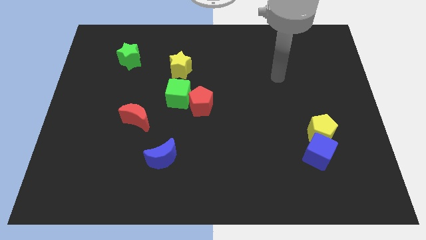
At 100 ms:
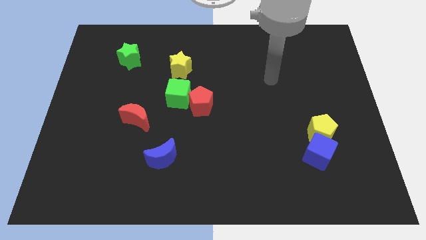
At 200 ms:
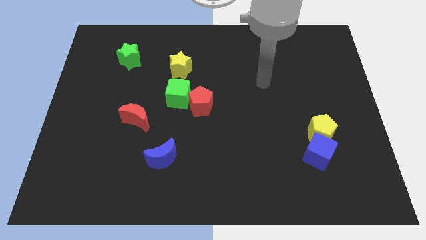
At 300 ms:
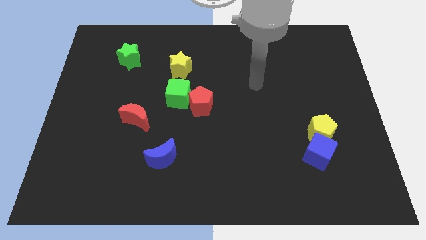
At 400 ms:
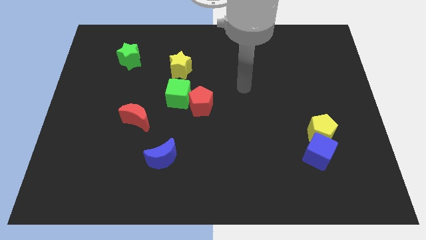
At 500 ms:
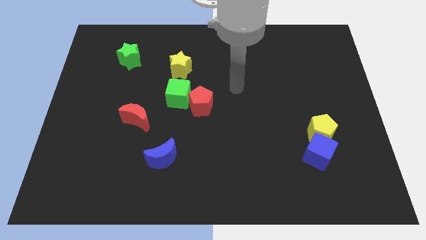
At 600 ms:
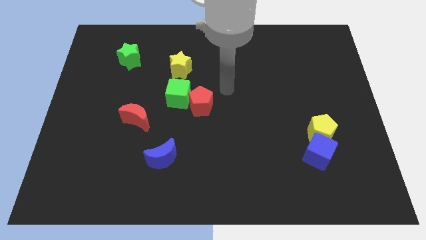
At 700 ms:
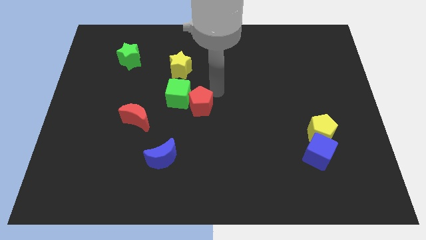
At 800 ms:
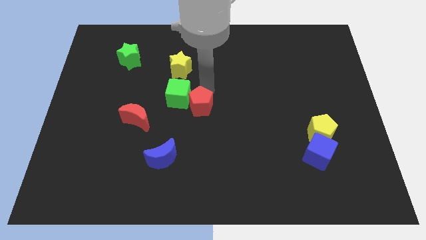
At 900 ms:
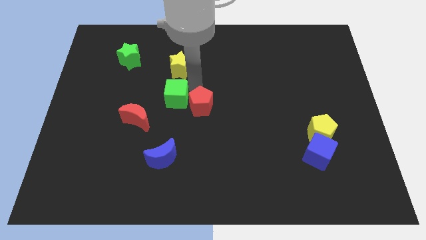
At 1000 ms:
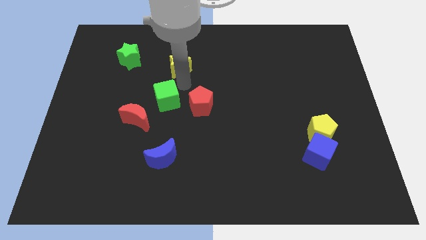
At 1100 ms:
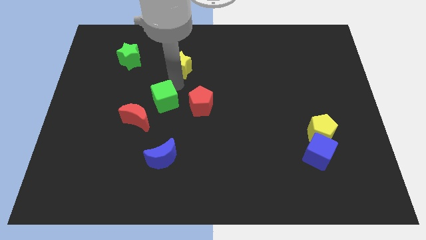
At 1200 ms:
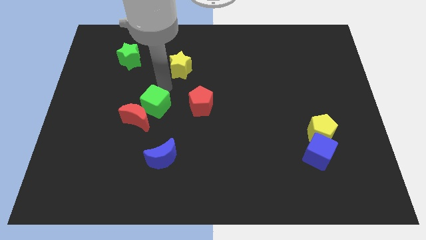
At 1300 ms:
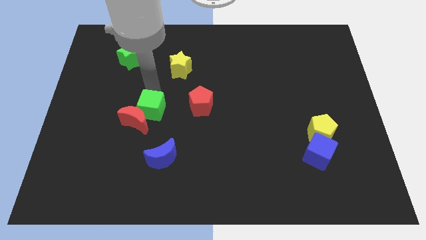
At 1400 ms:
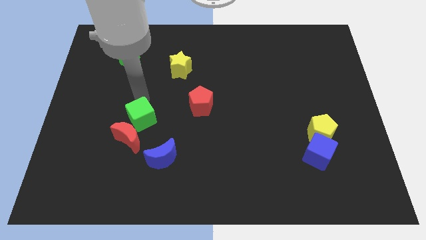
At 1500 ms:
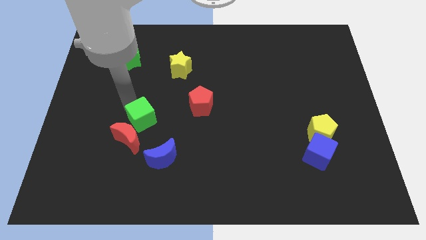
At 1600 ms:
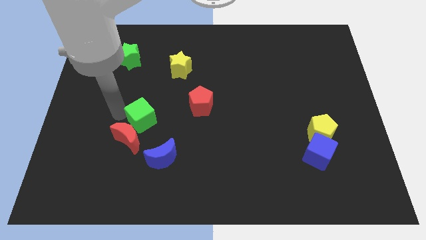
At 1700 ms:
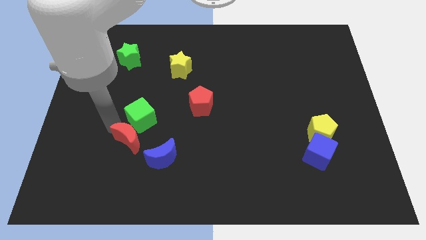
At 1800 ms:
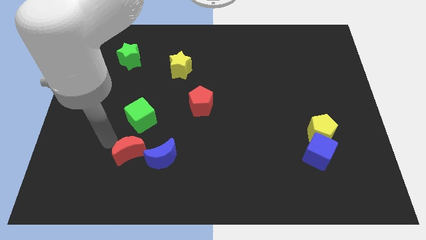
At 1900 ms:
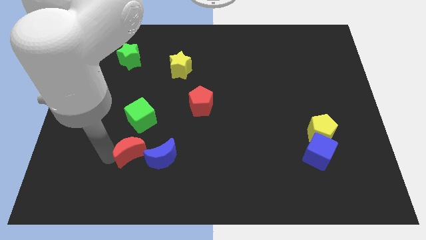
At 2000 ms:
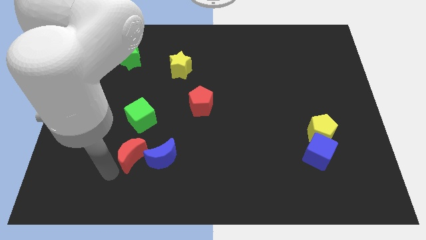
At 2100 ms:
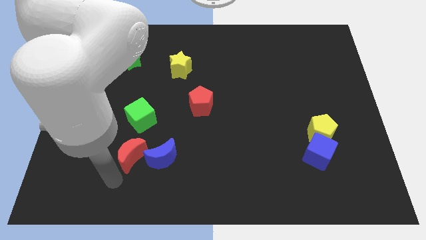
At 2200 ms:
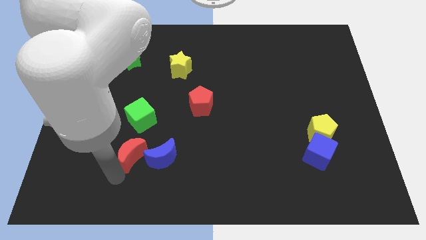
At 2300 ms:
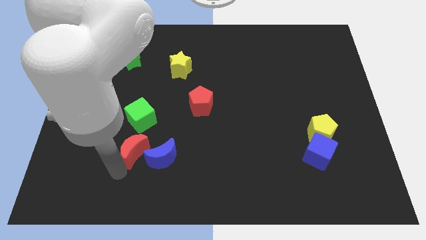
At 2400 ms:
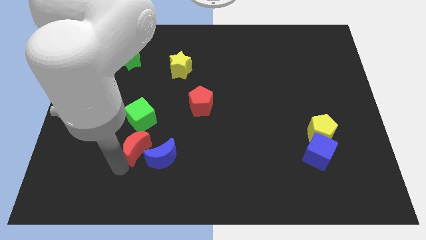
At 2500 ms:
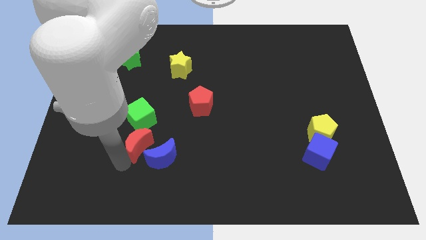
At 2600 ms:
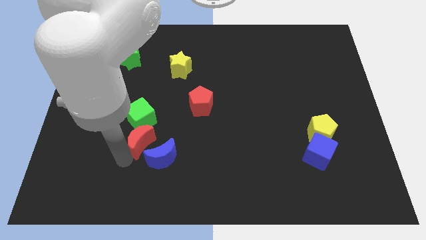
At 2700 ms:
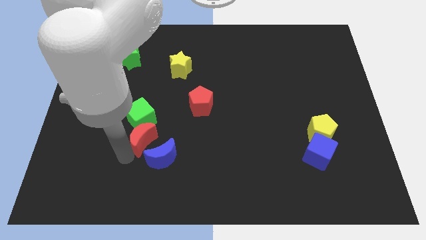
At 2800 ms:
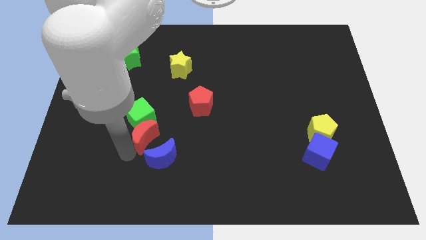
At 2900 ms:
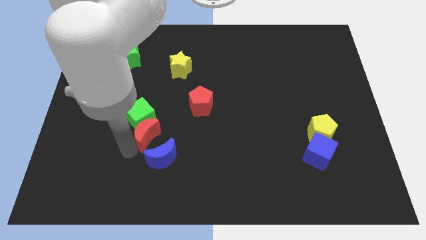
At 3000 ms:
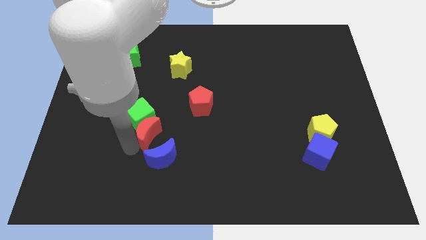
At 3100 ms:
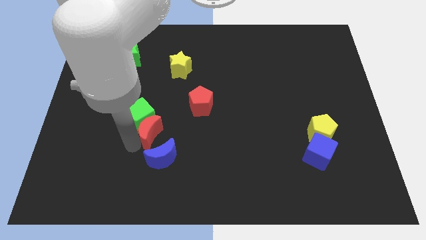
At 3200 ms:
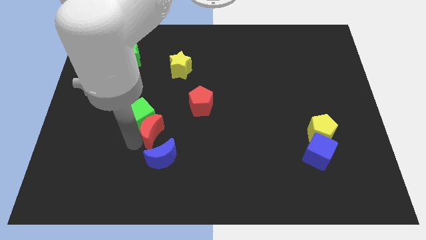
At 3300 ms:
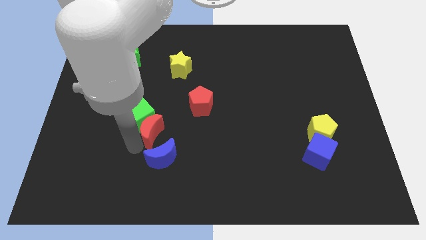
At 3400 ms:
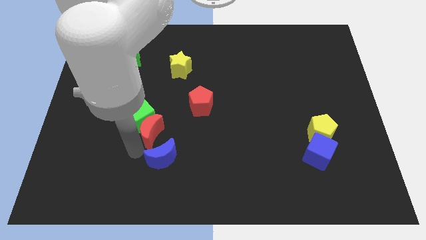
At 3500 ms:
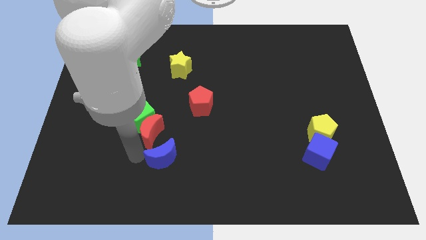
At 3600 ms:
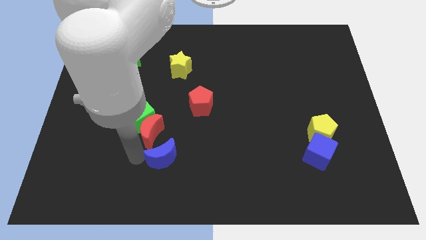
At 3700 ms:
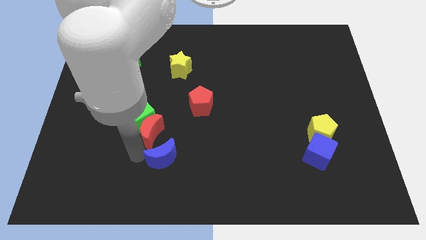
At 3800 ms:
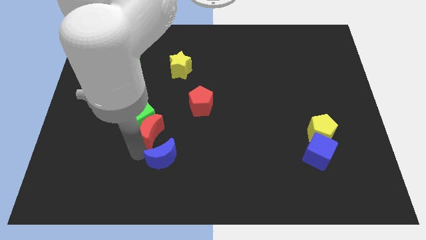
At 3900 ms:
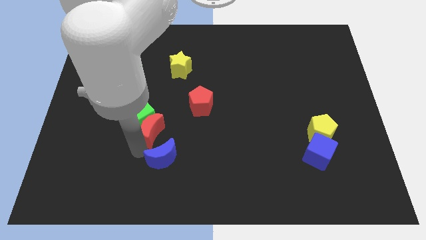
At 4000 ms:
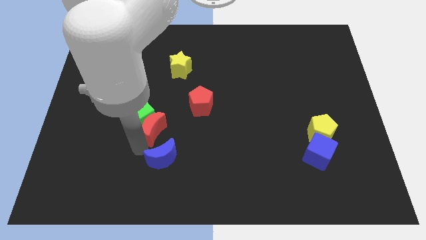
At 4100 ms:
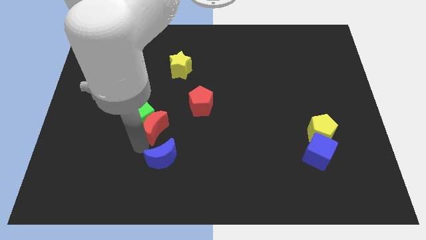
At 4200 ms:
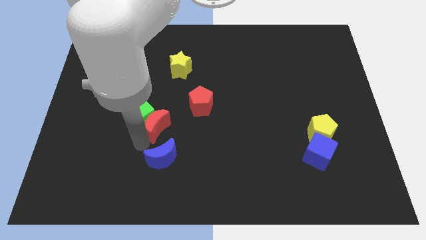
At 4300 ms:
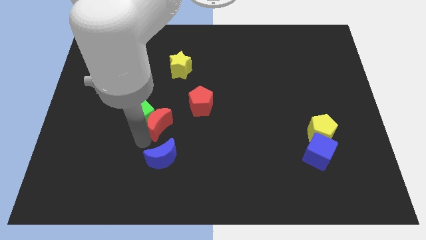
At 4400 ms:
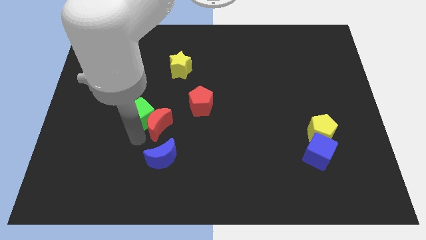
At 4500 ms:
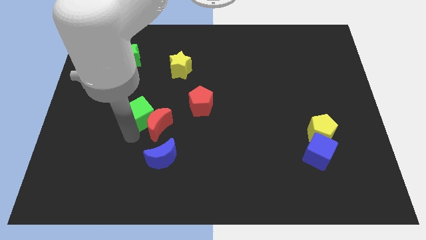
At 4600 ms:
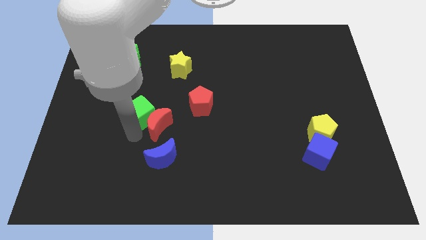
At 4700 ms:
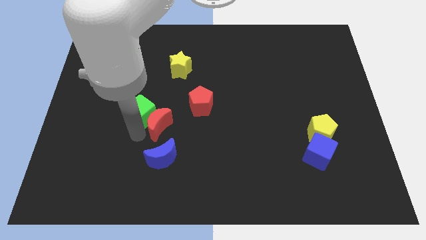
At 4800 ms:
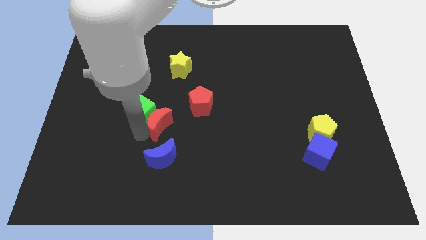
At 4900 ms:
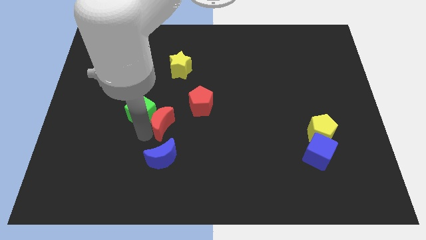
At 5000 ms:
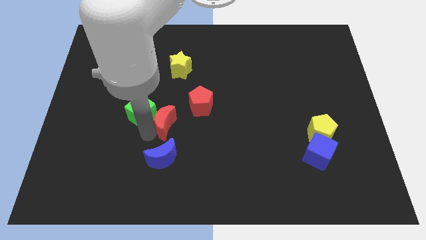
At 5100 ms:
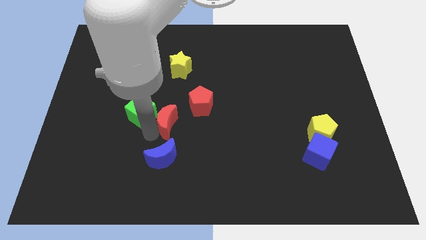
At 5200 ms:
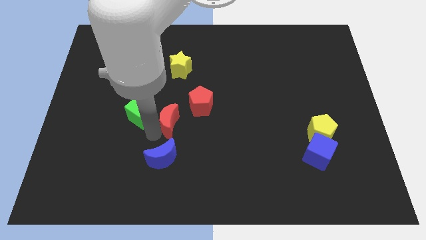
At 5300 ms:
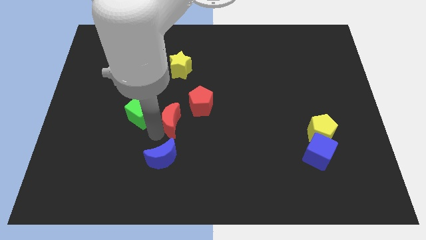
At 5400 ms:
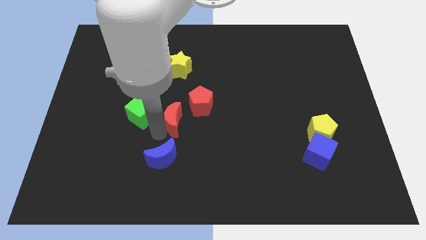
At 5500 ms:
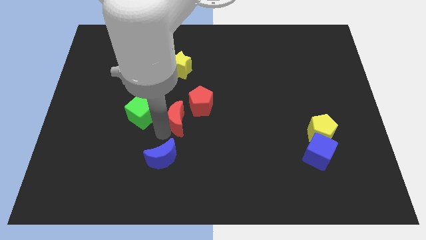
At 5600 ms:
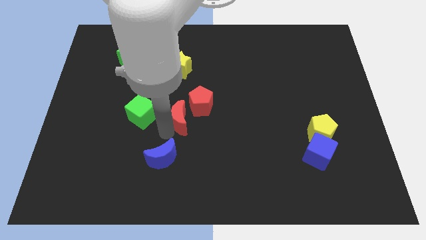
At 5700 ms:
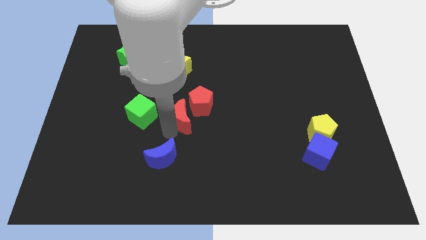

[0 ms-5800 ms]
push the red moon next to the red pentagon

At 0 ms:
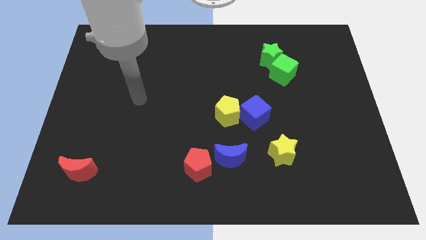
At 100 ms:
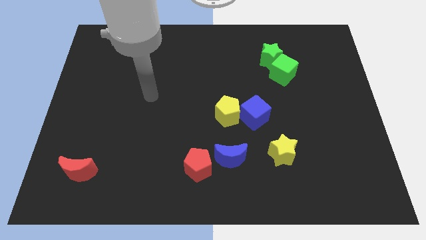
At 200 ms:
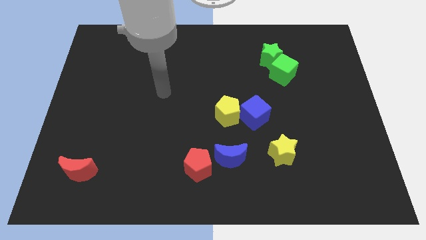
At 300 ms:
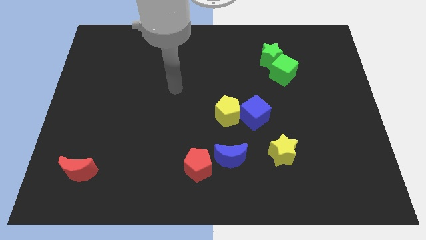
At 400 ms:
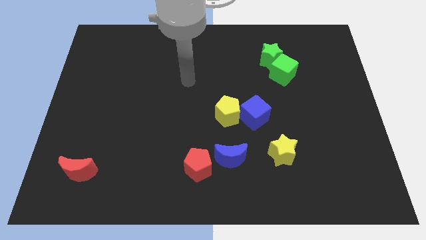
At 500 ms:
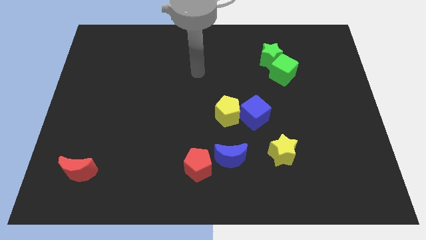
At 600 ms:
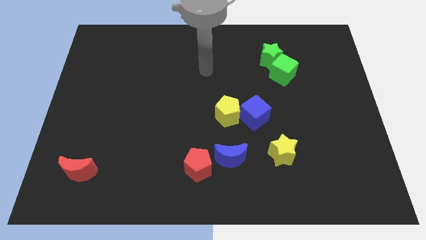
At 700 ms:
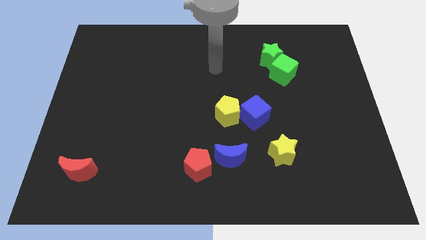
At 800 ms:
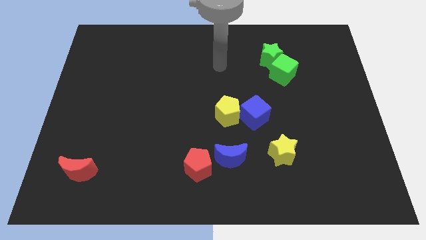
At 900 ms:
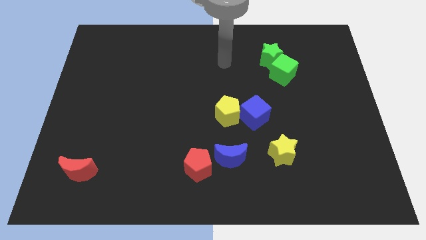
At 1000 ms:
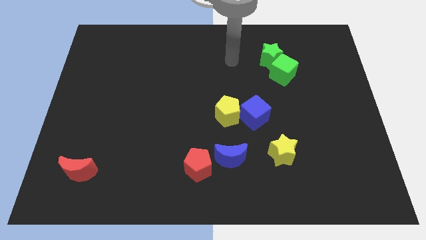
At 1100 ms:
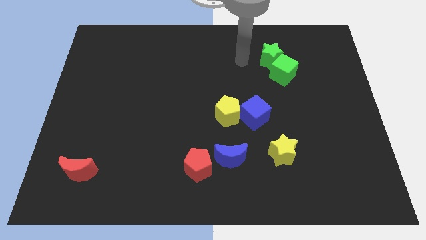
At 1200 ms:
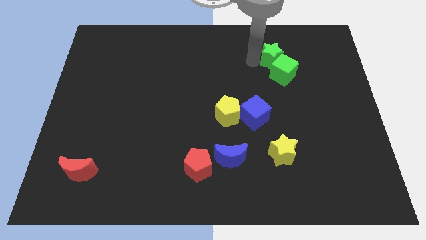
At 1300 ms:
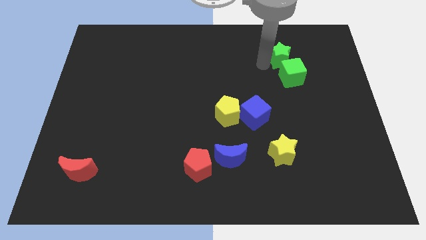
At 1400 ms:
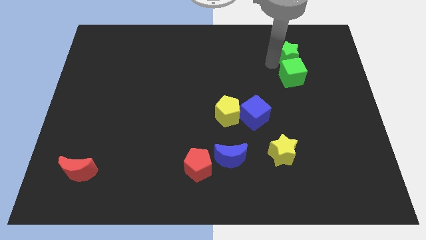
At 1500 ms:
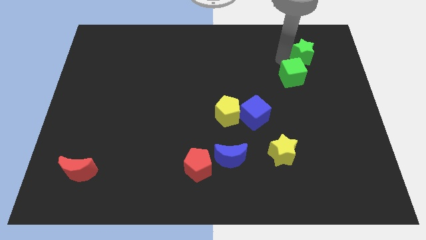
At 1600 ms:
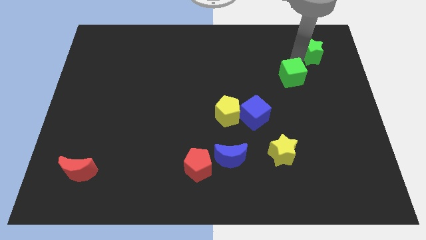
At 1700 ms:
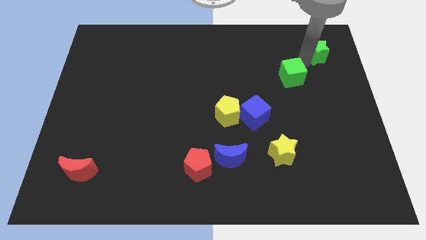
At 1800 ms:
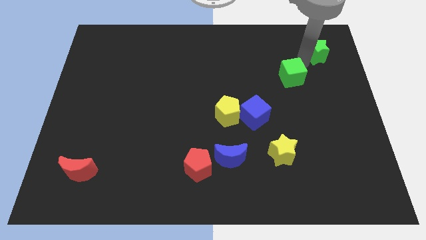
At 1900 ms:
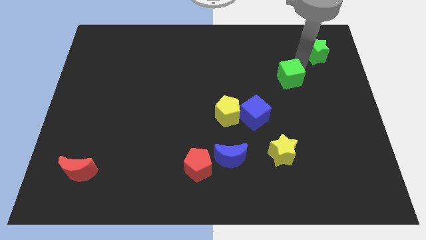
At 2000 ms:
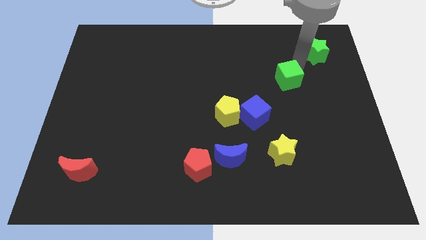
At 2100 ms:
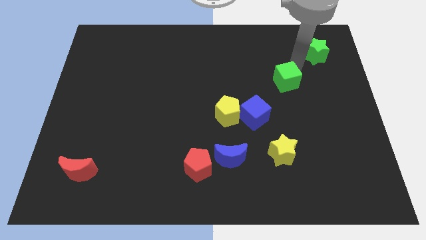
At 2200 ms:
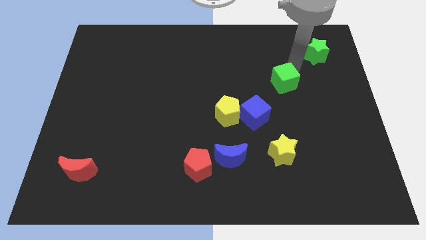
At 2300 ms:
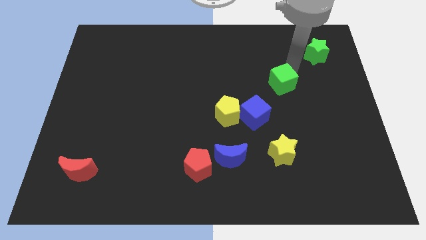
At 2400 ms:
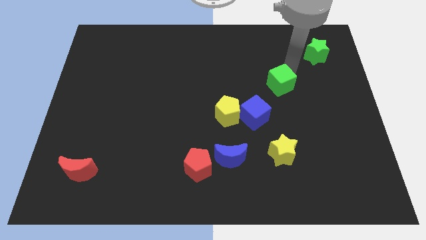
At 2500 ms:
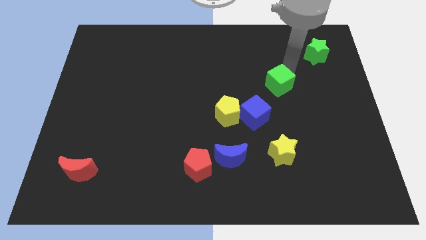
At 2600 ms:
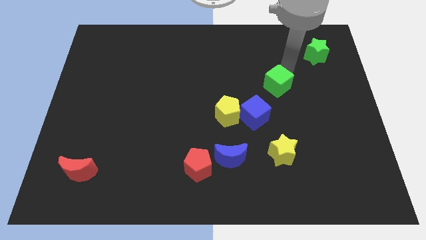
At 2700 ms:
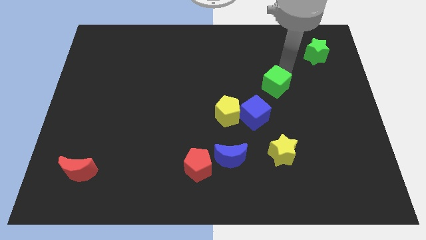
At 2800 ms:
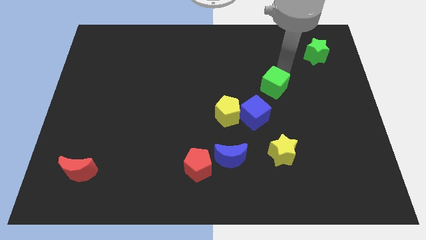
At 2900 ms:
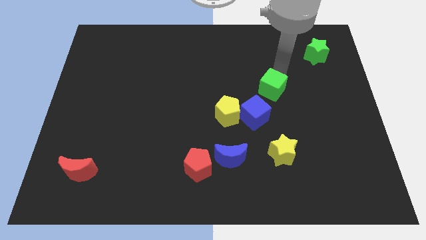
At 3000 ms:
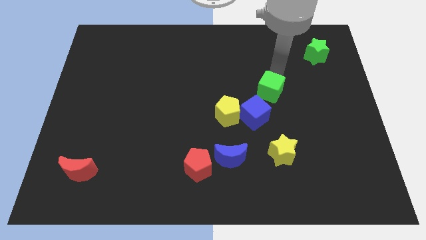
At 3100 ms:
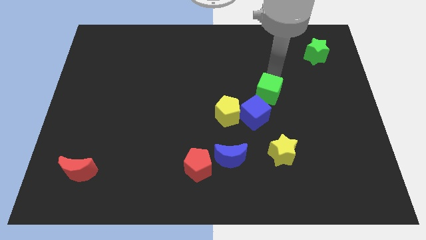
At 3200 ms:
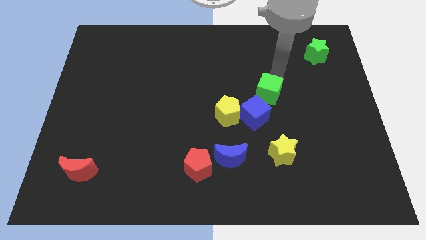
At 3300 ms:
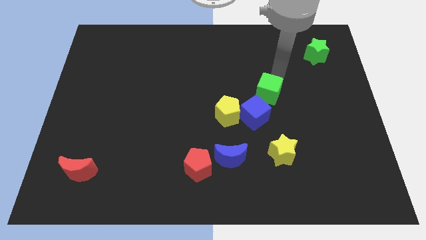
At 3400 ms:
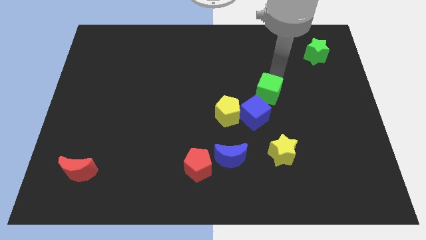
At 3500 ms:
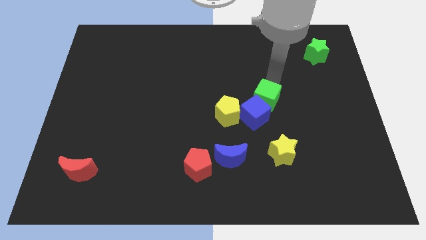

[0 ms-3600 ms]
move the green cube next to the blue cube
